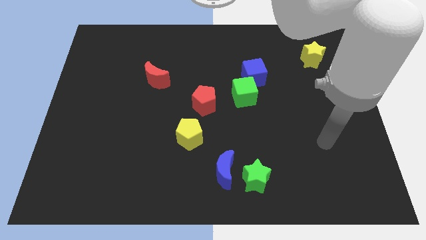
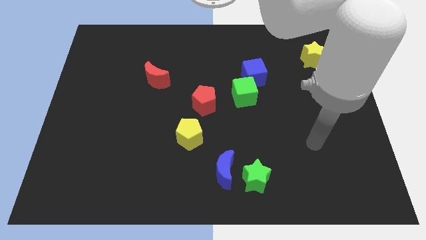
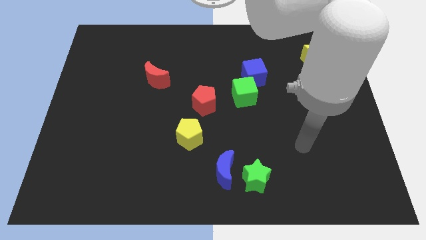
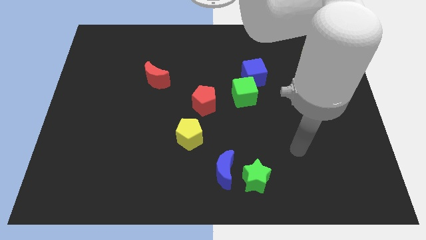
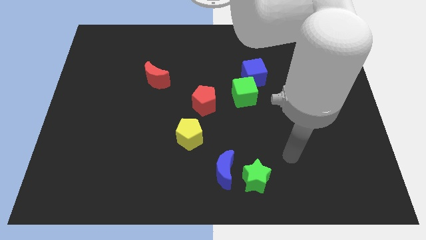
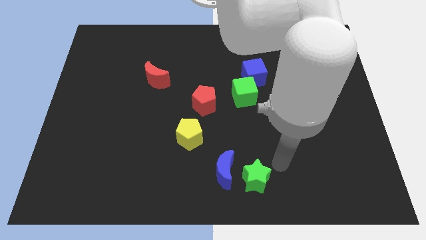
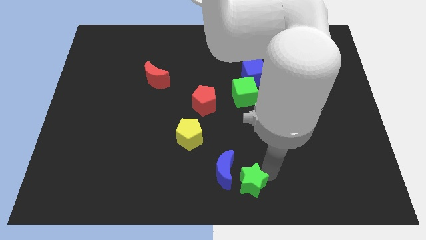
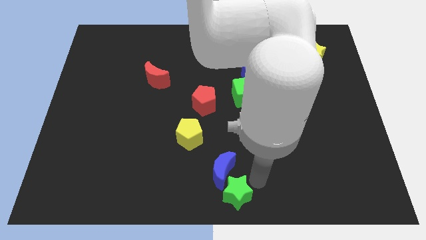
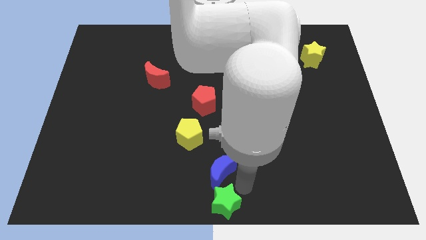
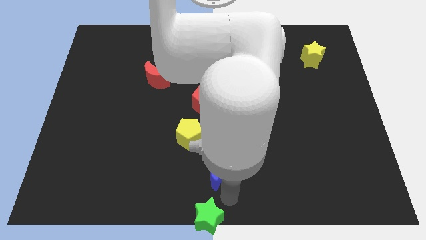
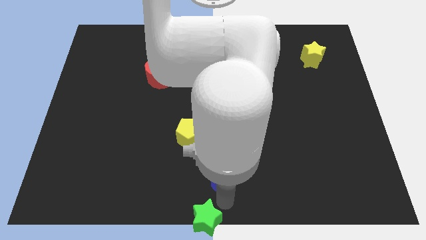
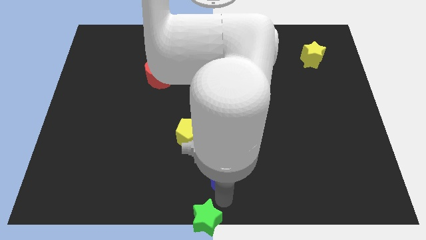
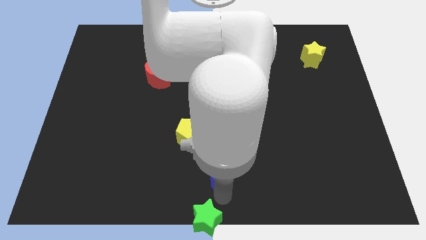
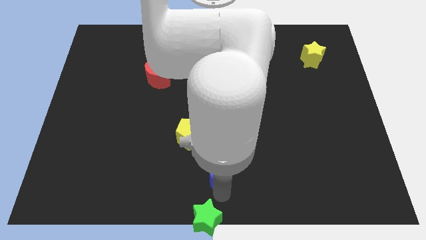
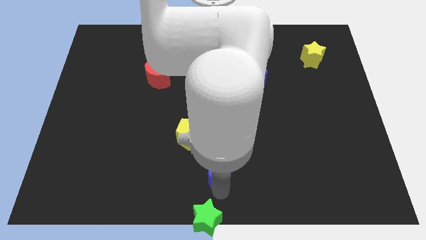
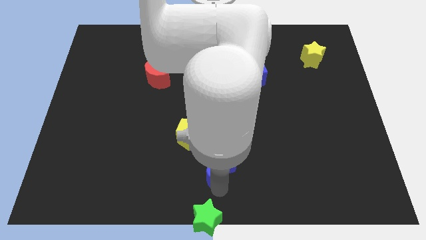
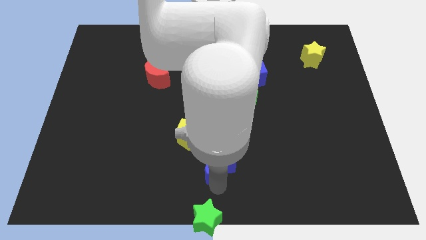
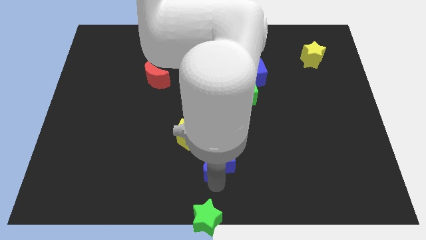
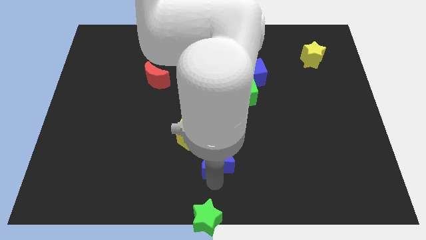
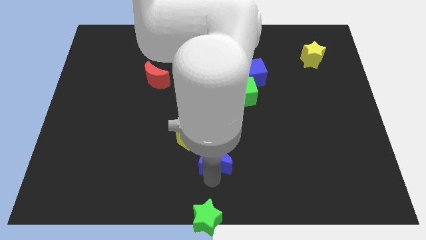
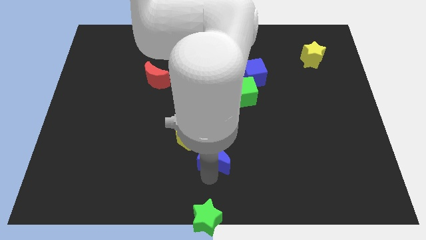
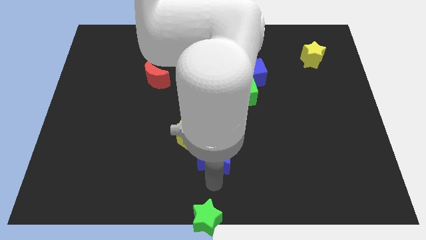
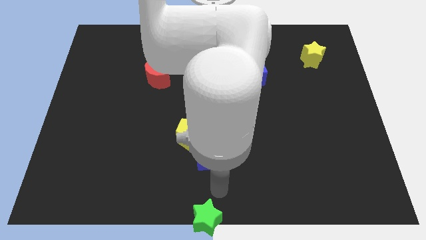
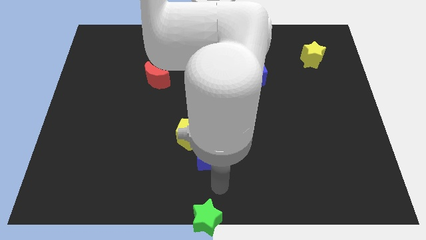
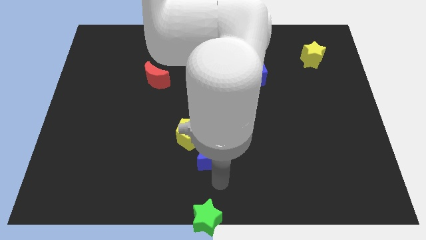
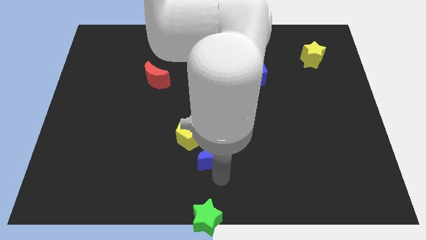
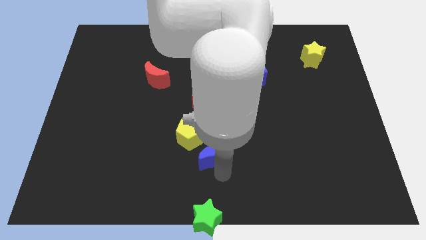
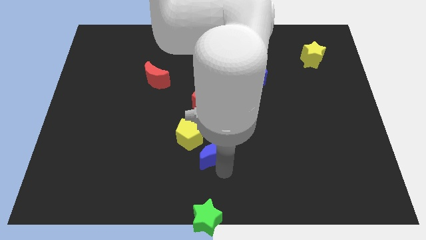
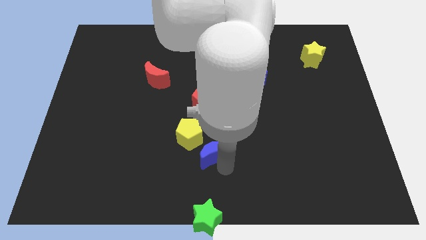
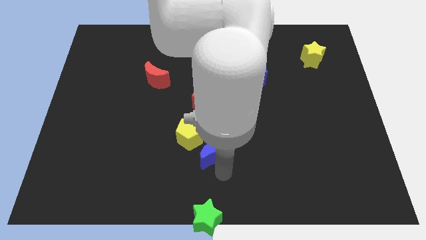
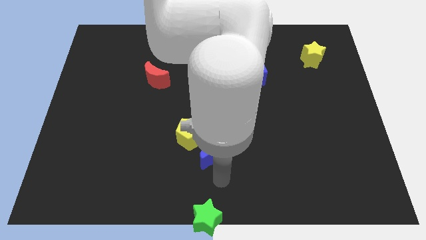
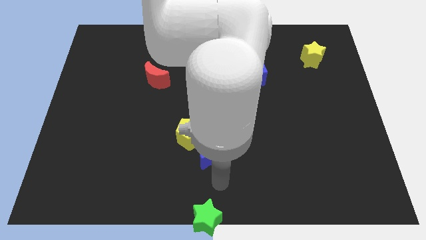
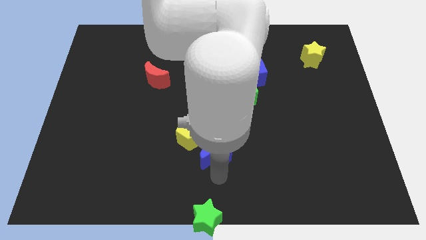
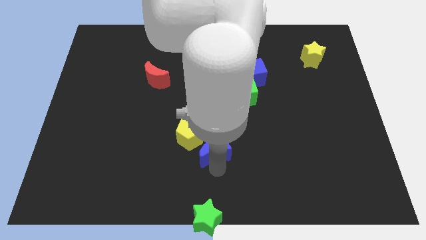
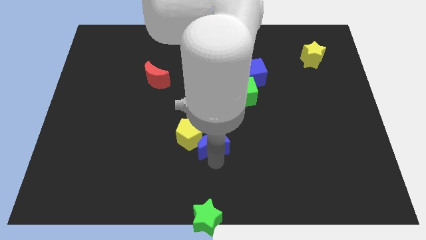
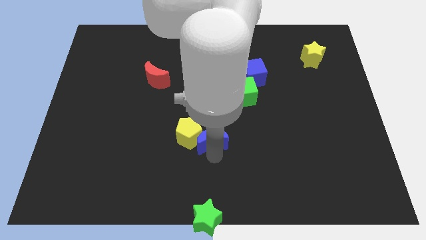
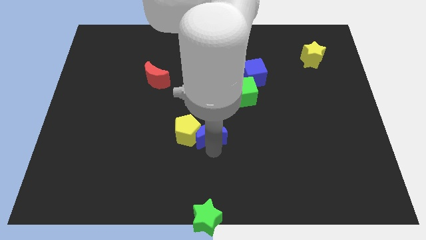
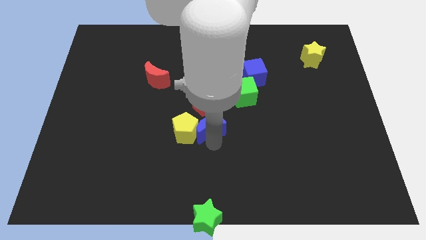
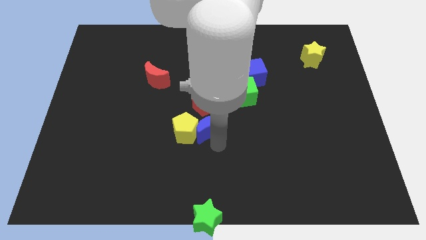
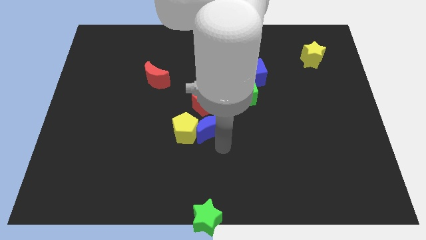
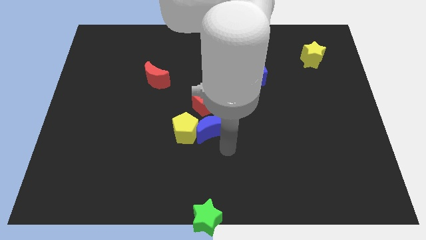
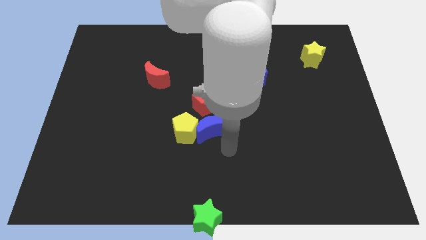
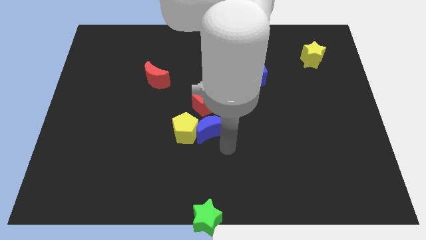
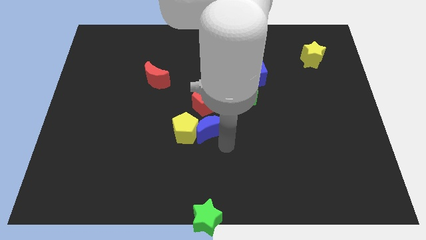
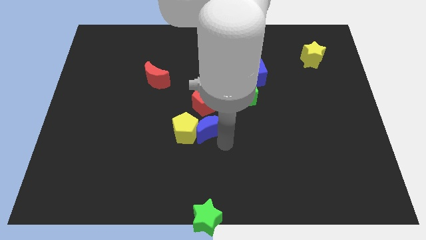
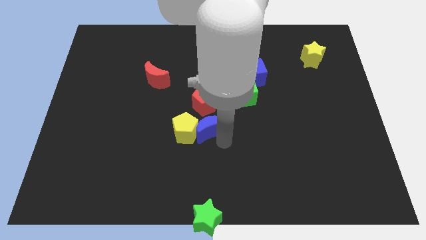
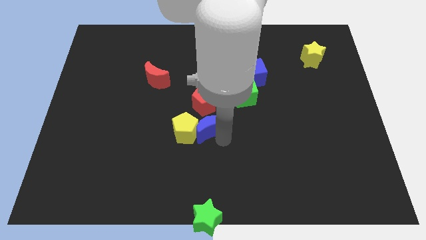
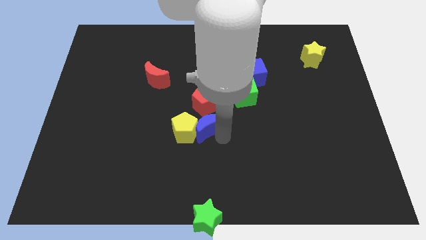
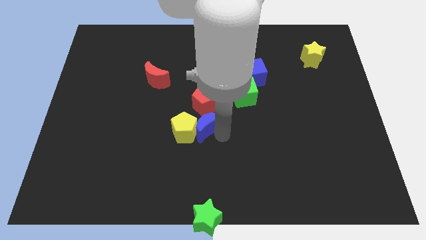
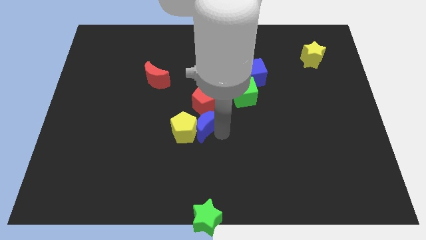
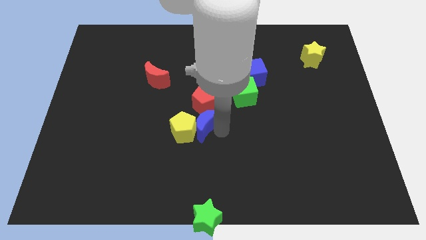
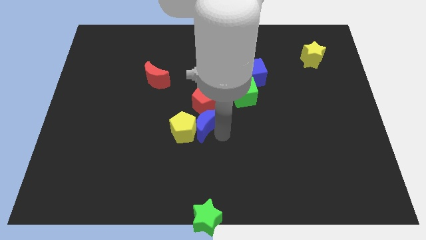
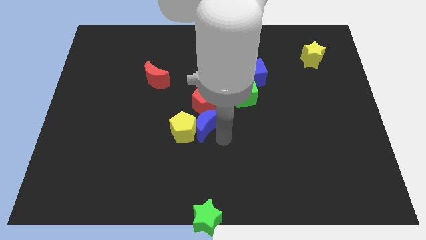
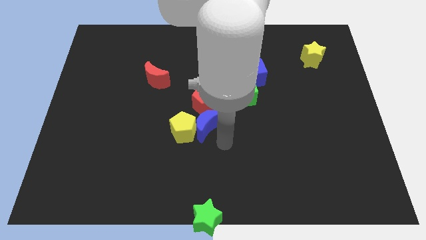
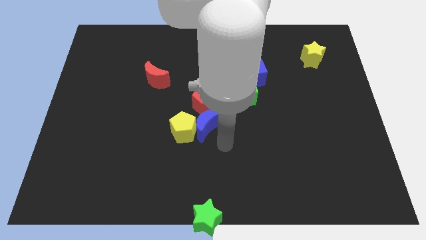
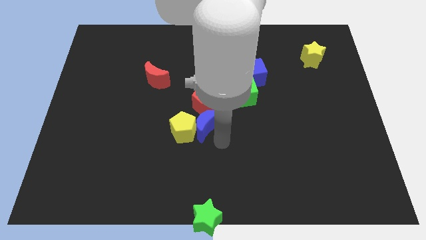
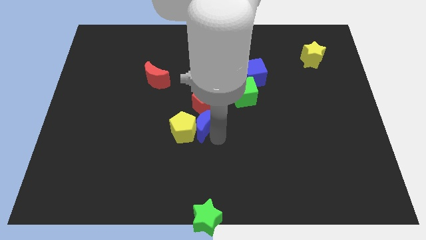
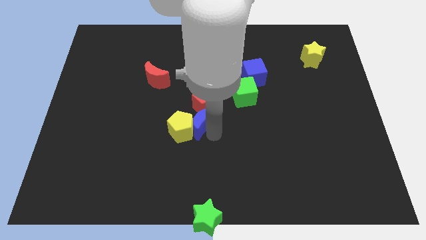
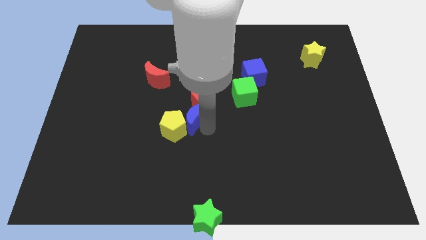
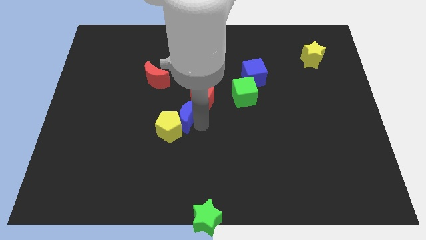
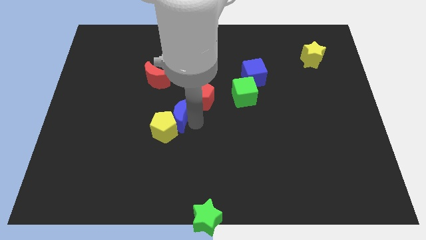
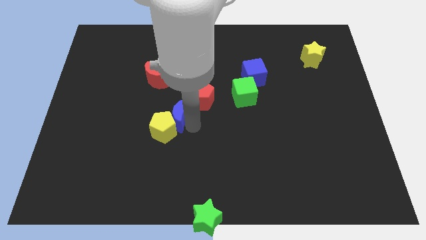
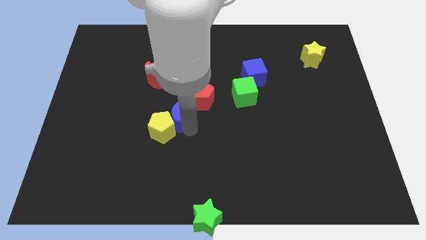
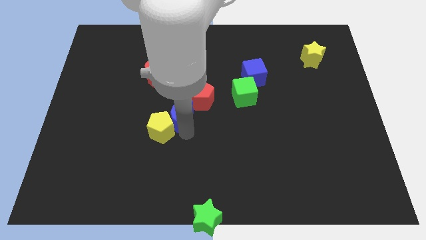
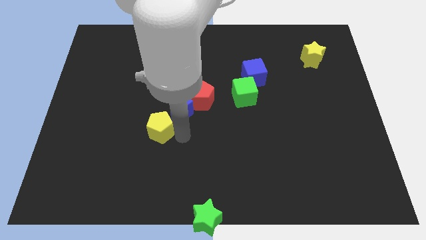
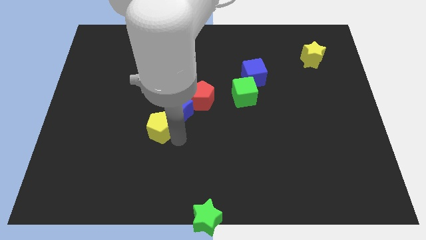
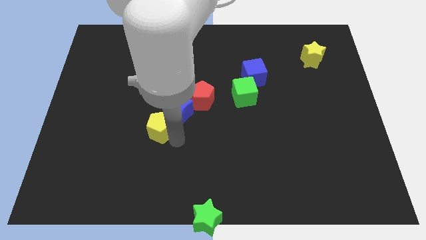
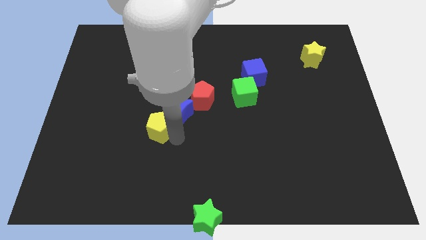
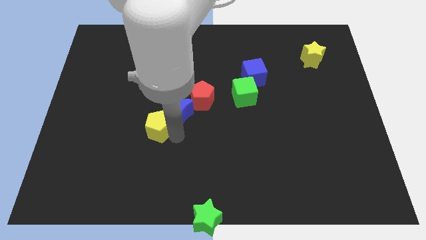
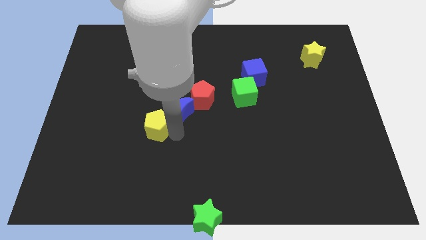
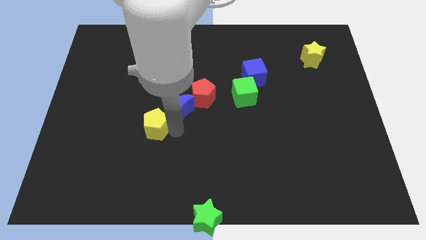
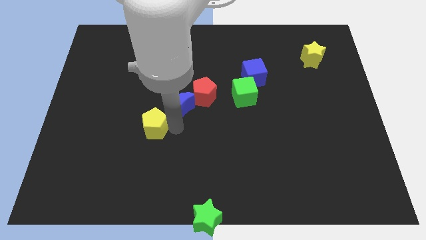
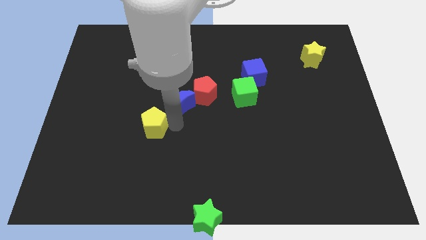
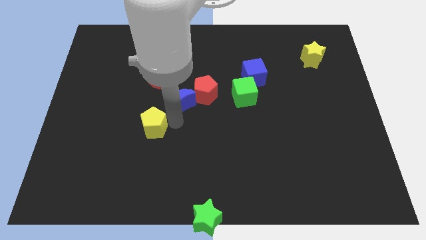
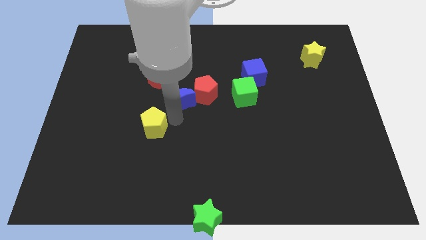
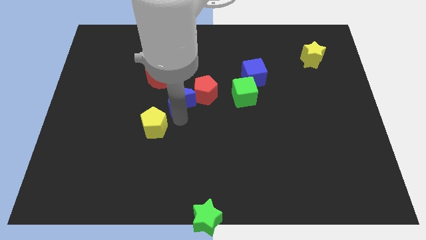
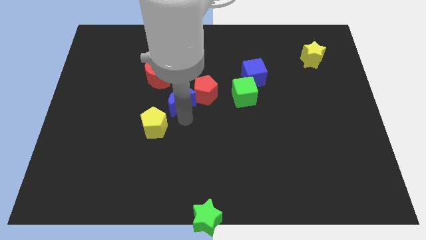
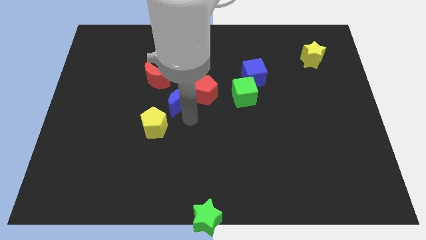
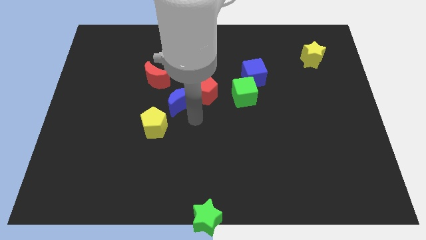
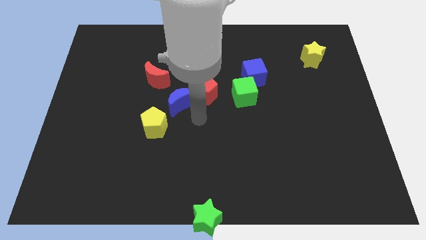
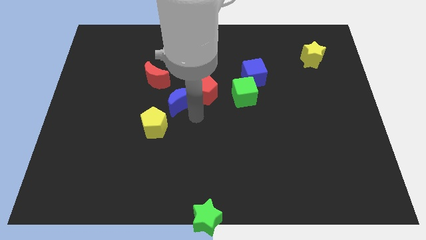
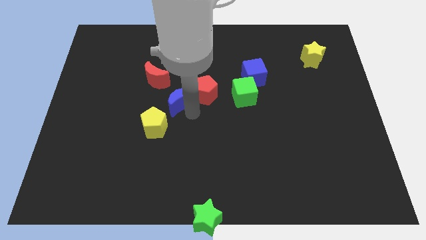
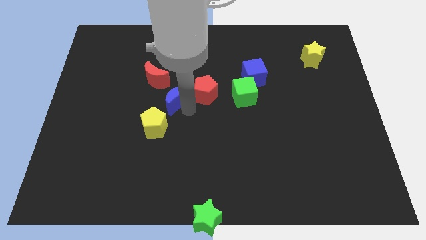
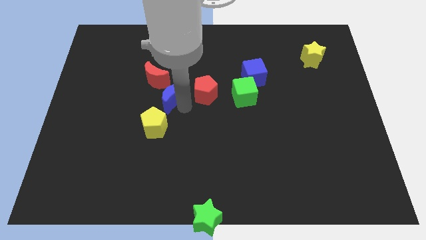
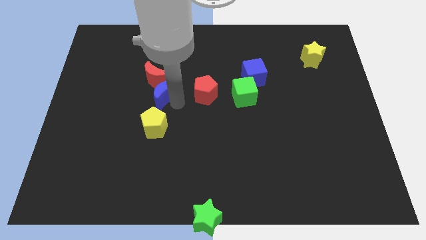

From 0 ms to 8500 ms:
push the blue moon towards the red moon
